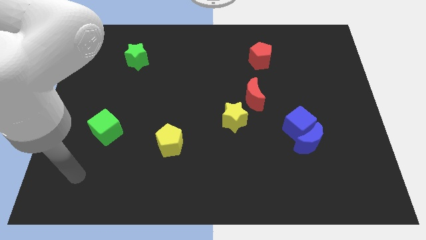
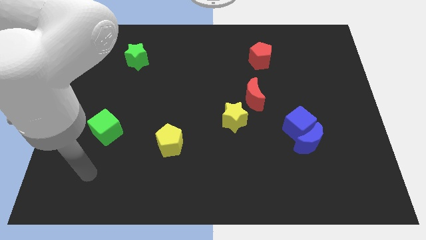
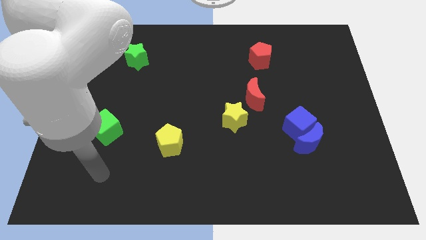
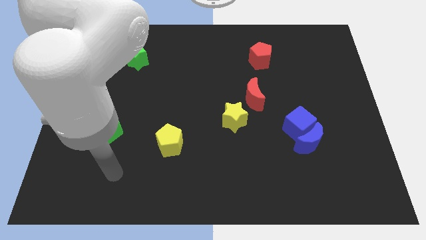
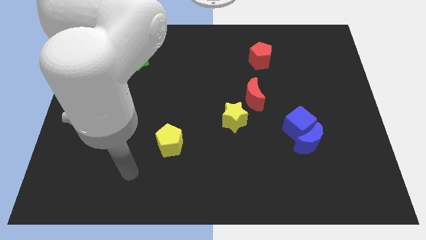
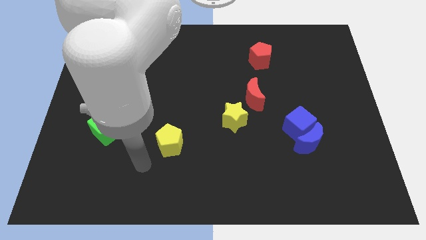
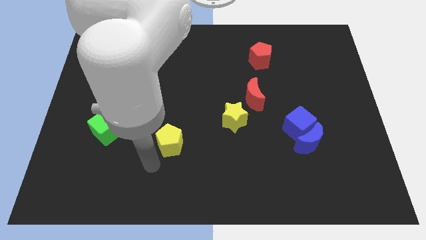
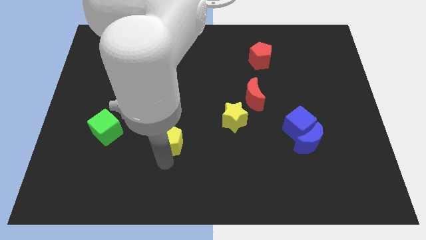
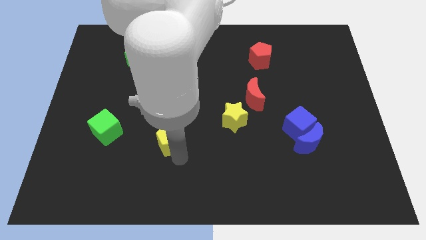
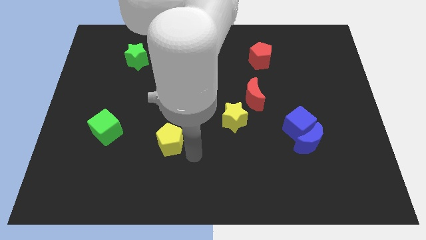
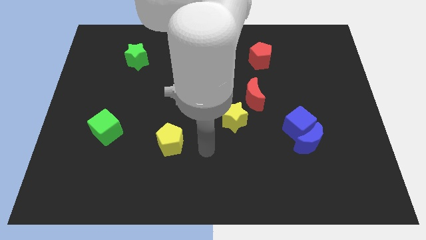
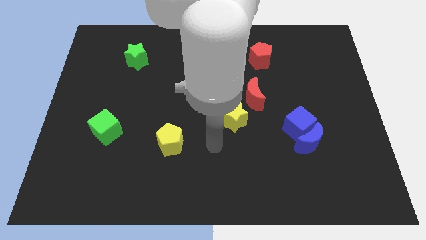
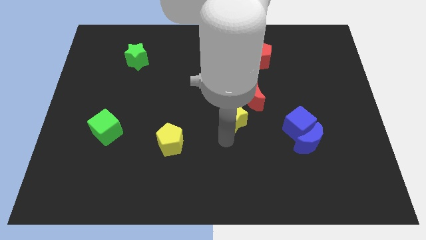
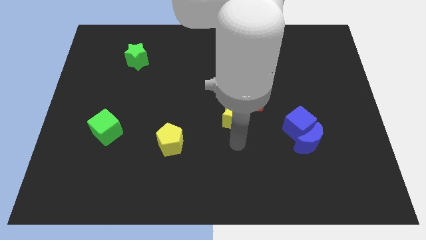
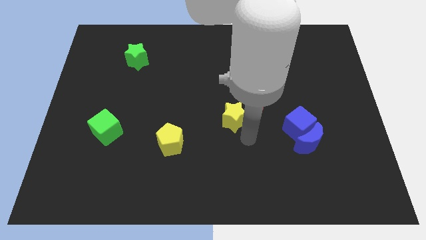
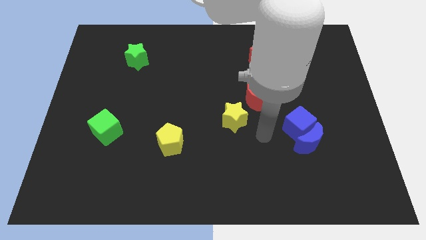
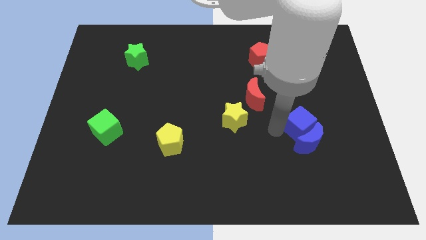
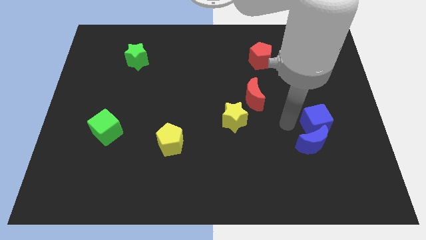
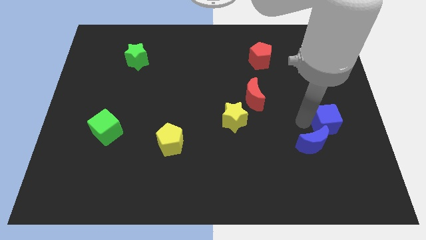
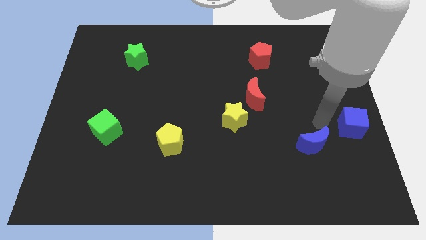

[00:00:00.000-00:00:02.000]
pull the blue moon apart from the blue cube

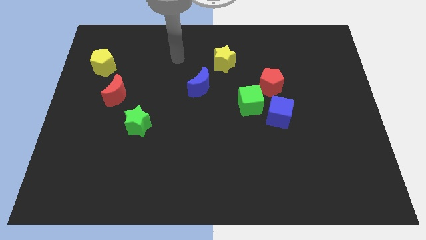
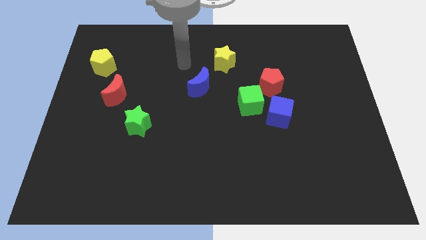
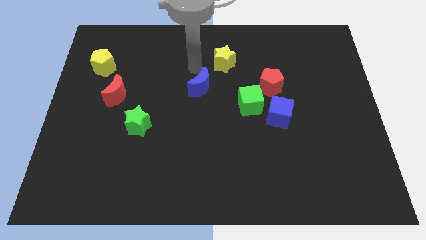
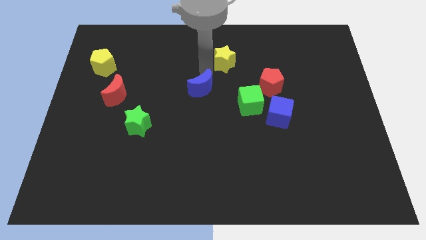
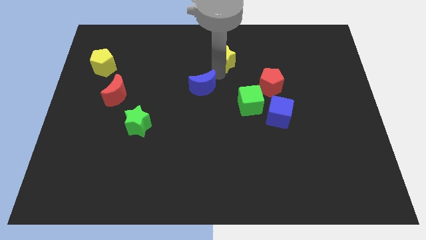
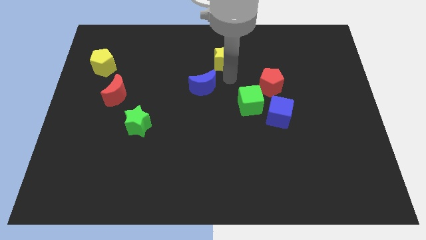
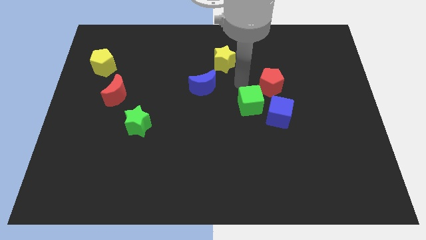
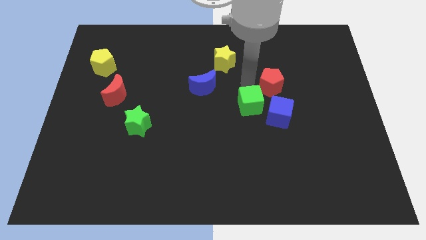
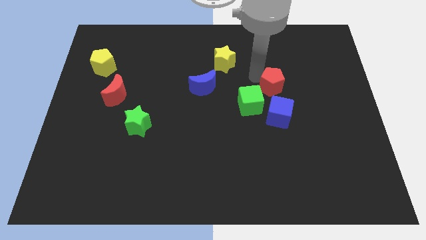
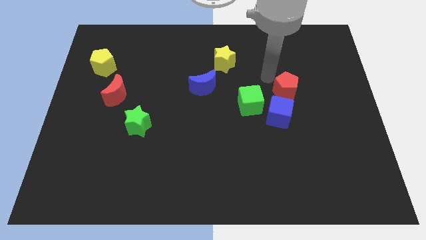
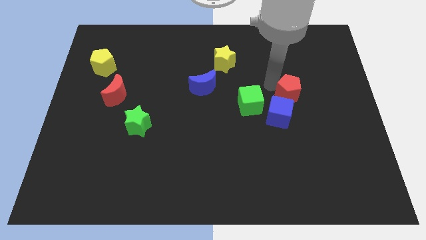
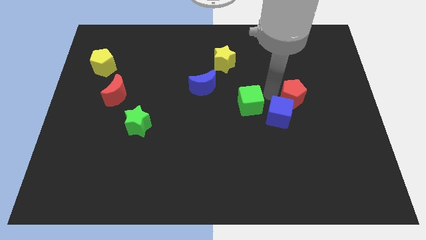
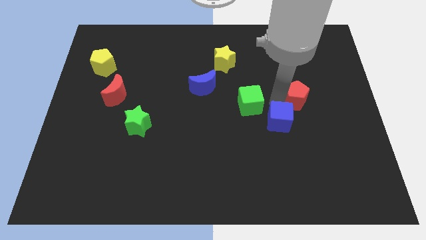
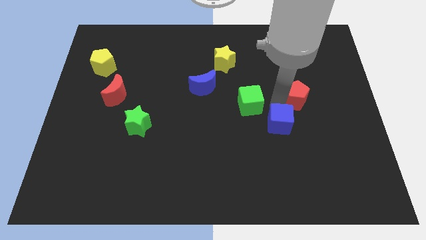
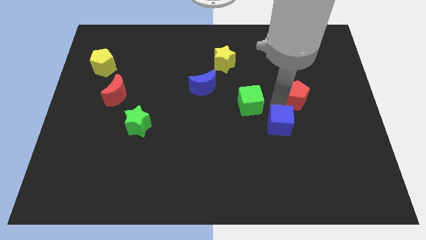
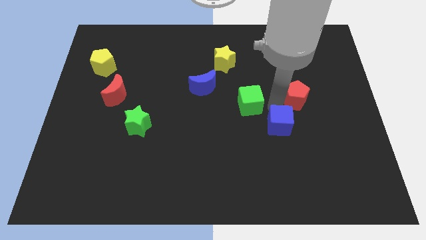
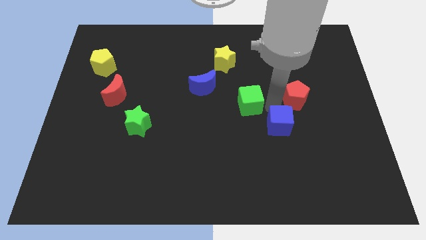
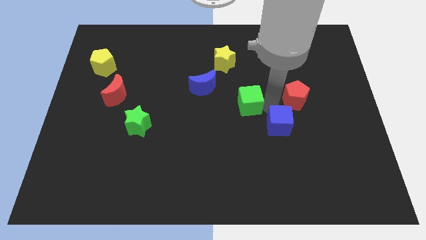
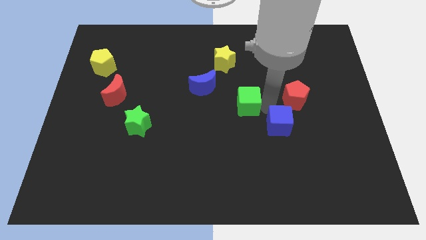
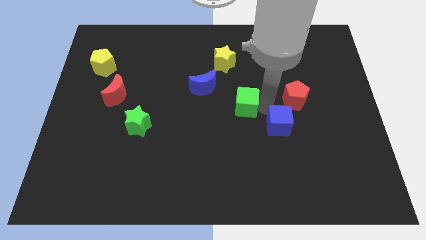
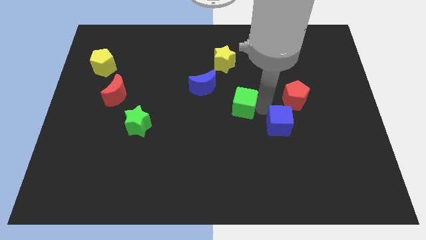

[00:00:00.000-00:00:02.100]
separate the green cube from the blue cube and red pentagon

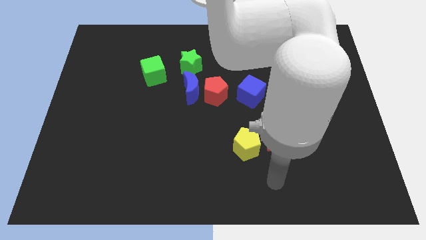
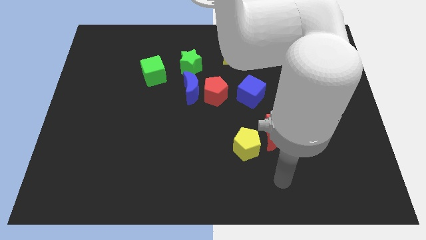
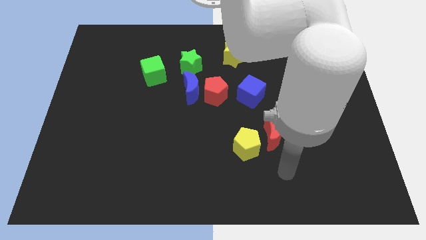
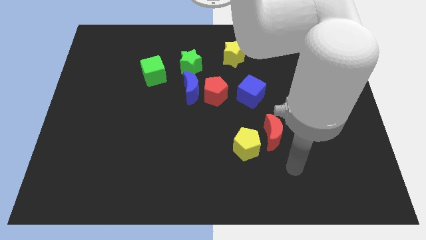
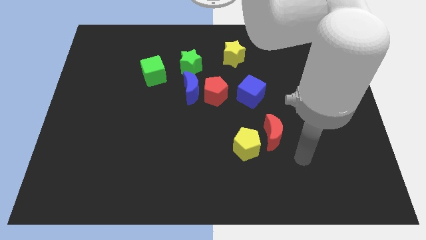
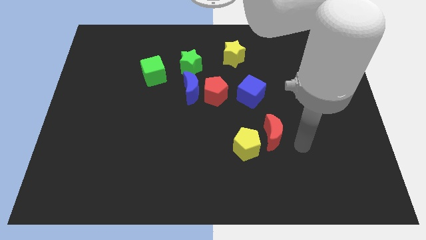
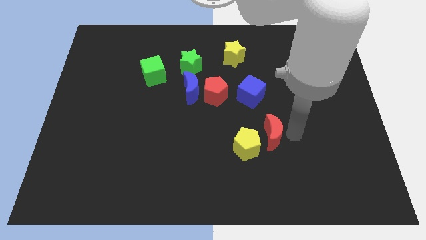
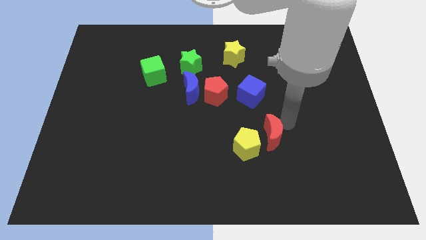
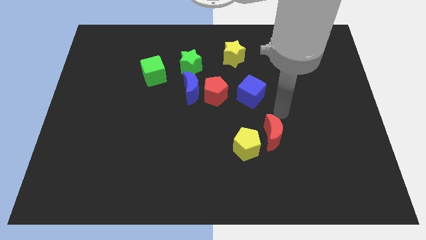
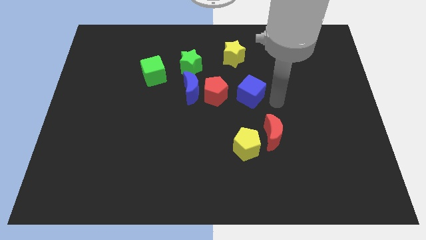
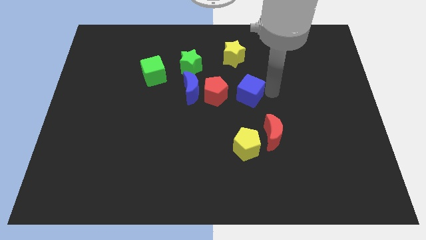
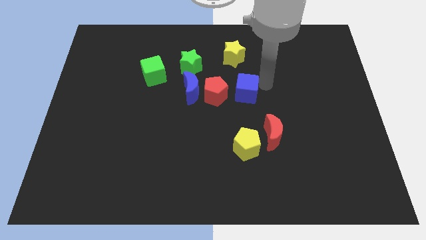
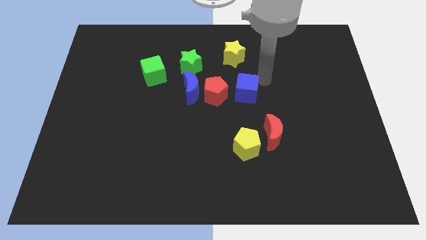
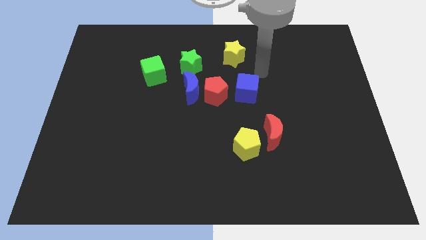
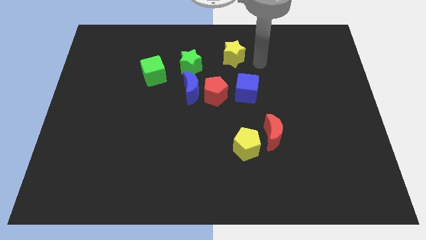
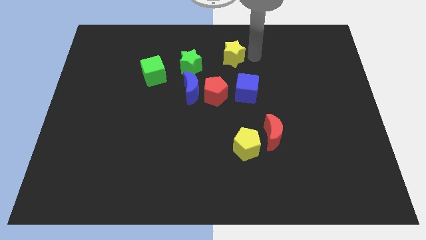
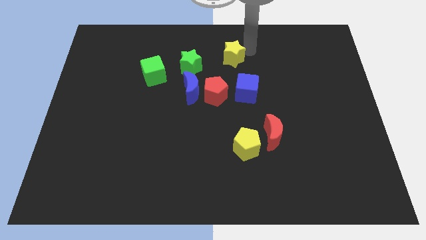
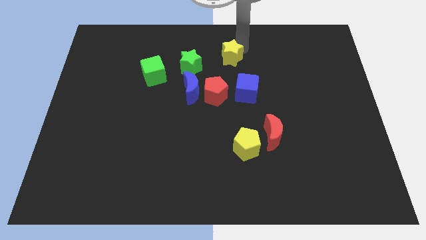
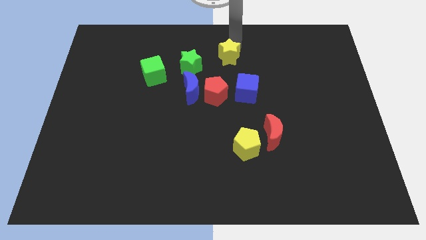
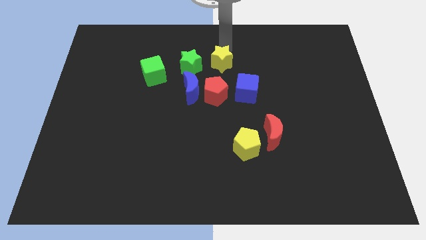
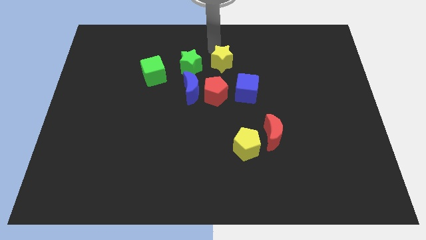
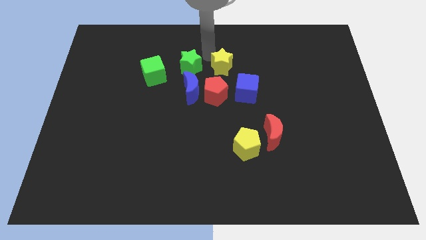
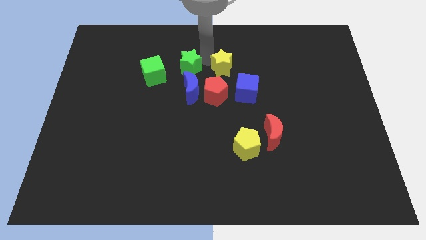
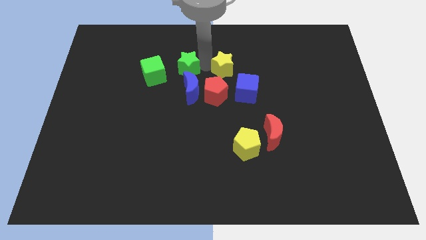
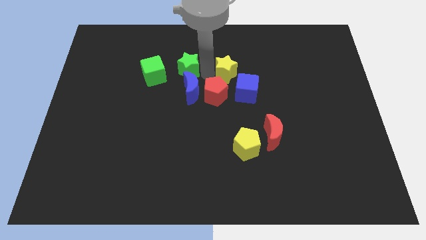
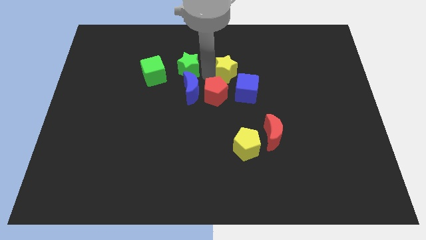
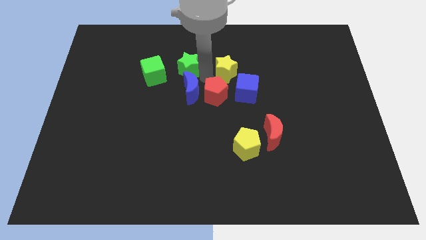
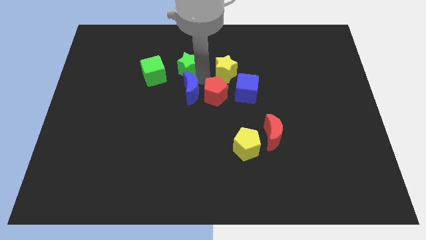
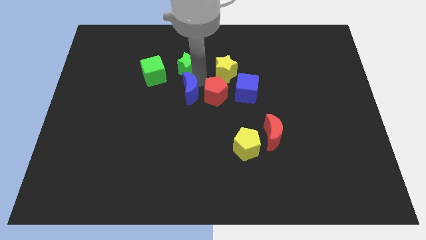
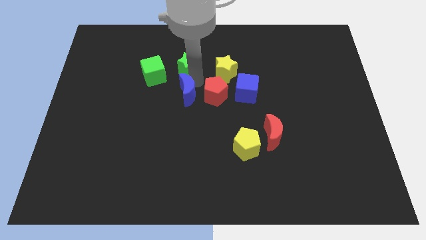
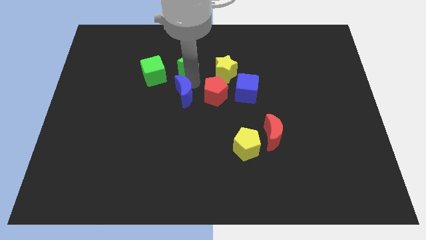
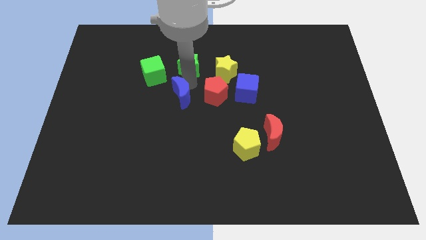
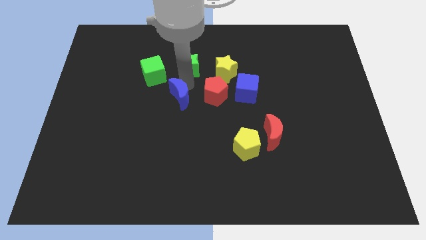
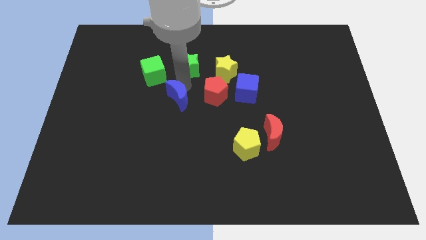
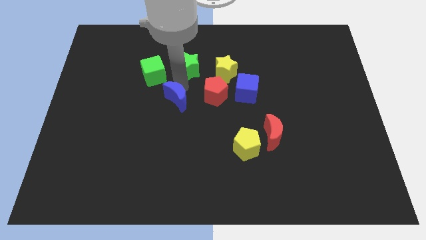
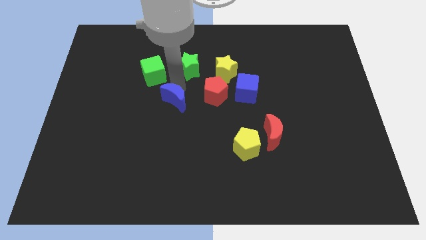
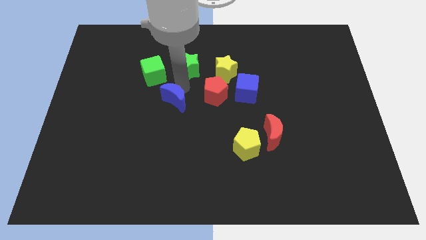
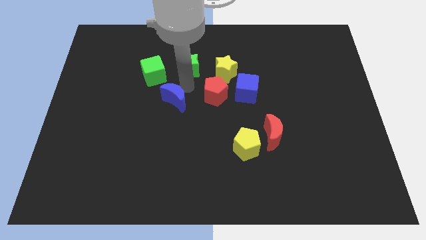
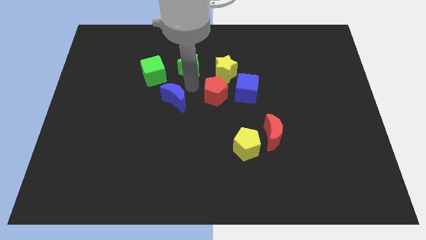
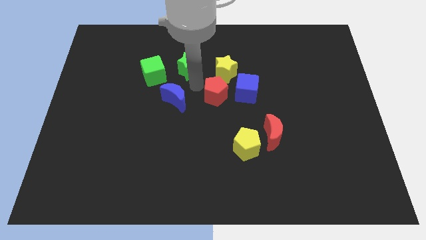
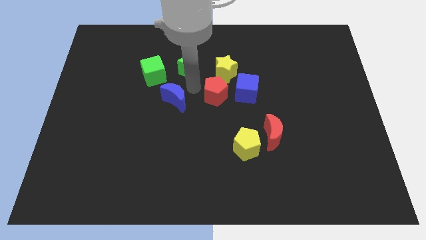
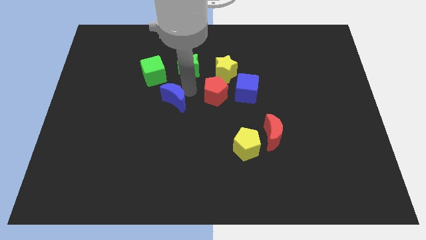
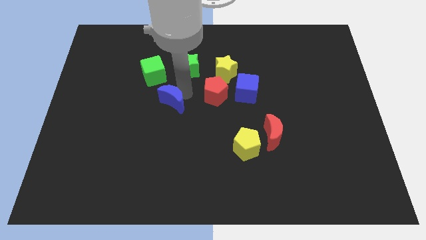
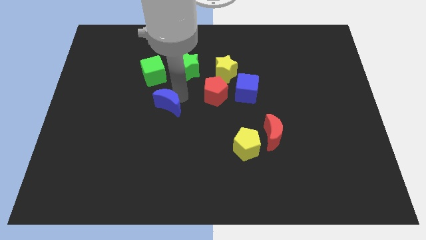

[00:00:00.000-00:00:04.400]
pull the blue moon apart from the red pentagon and green star

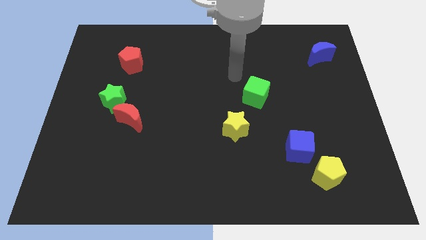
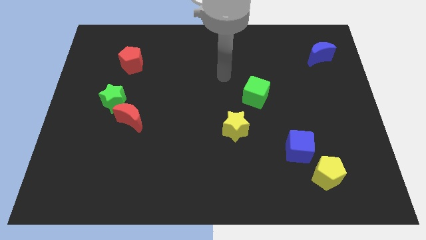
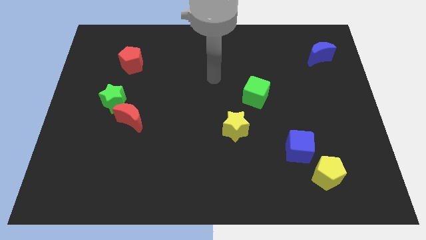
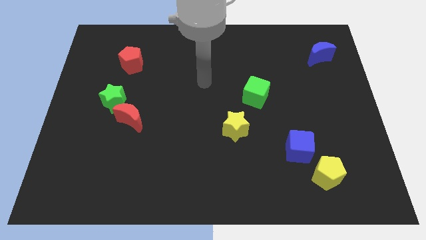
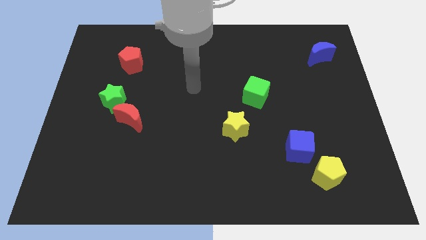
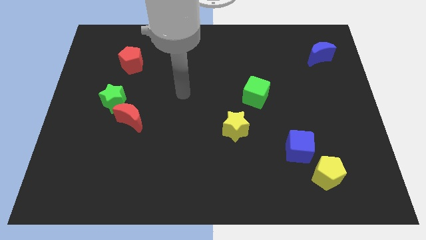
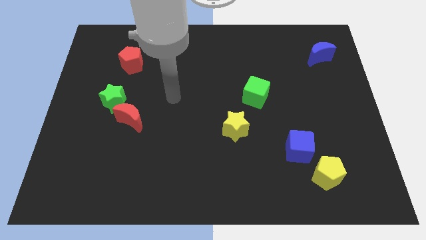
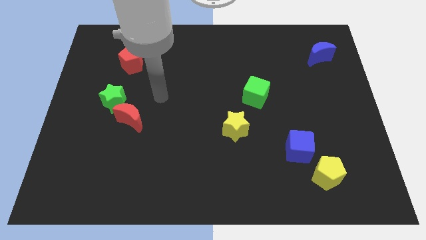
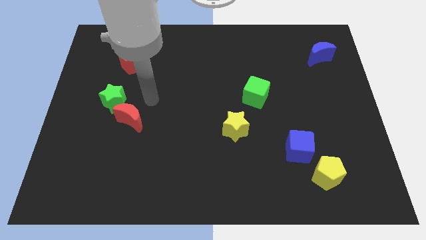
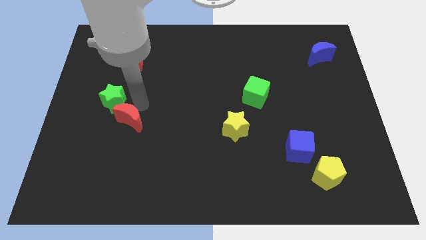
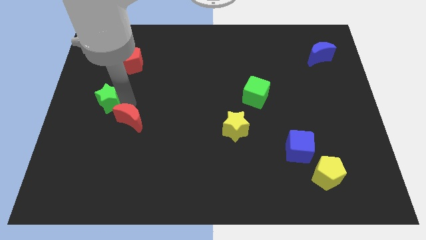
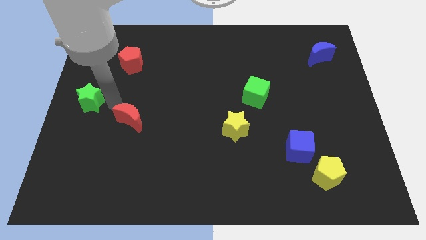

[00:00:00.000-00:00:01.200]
separate the red moon from the green star
